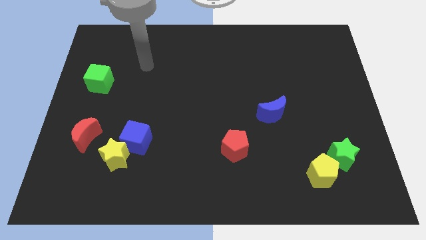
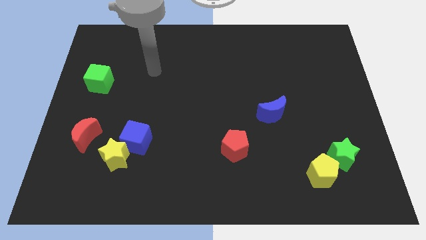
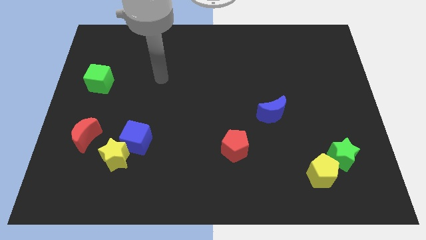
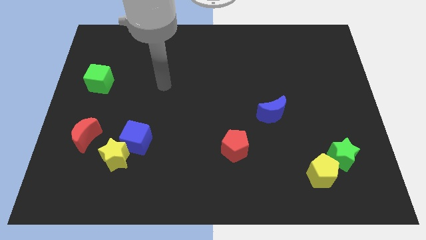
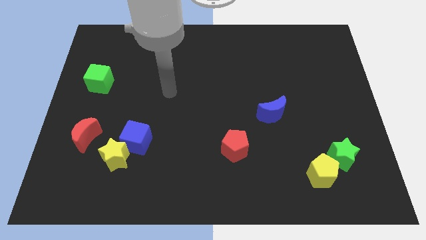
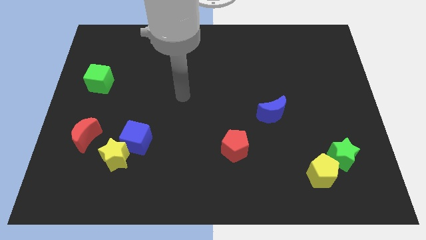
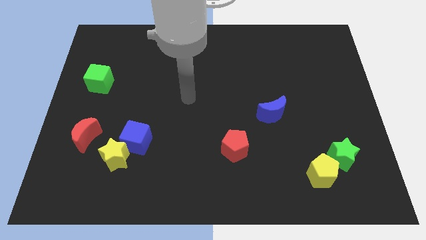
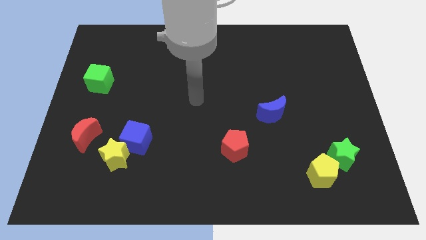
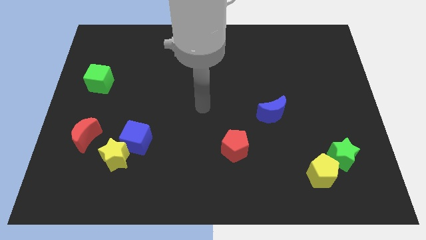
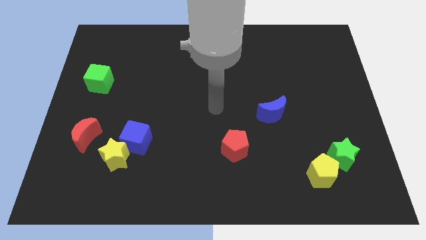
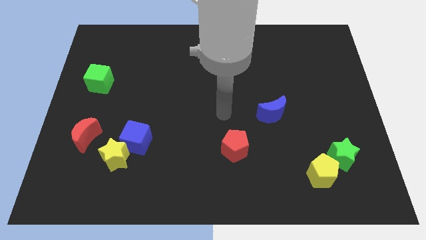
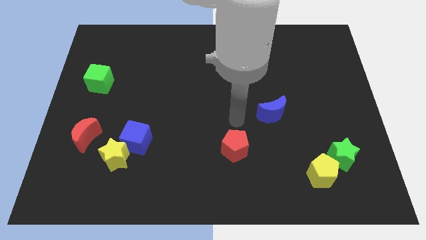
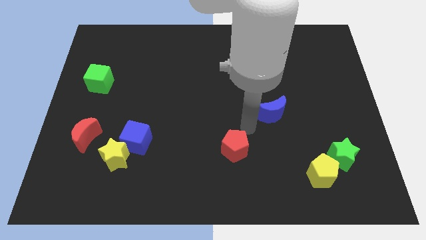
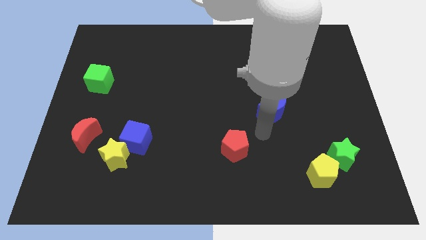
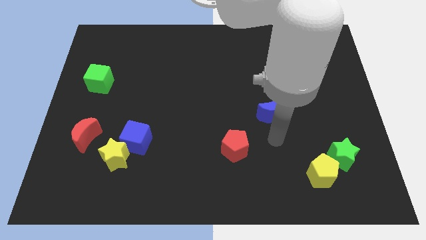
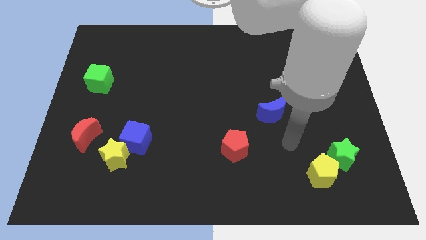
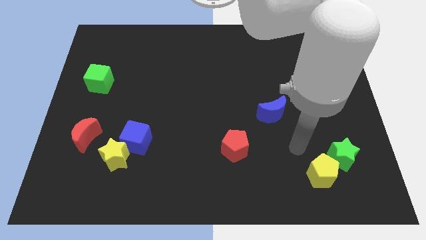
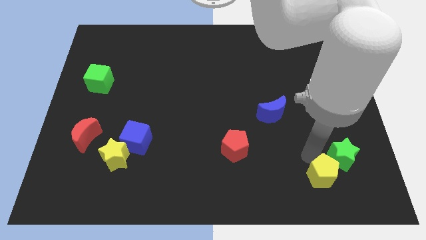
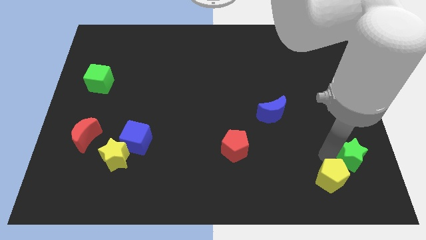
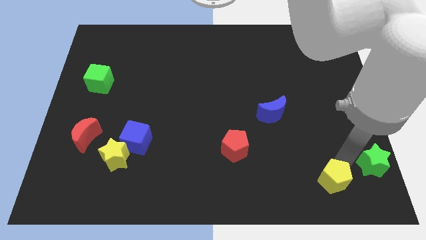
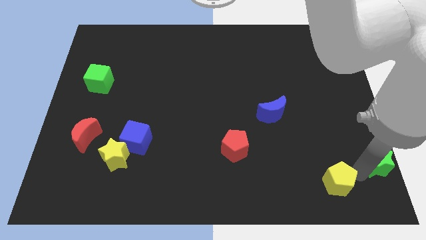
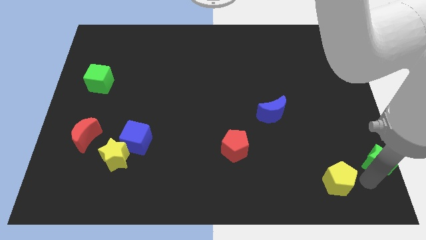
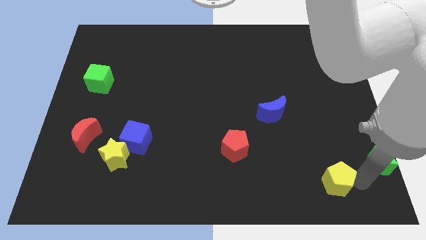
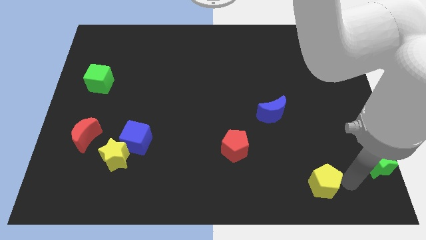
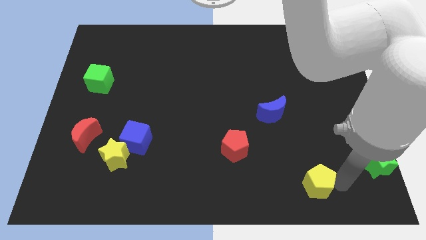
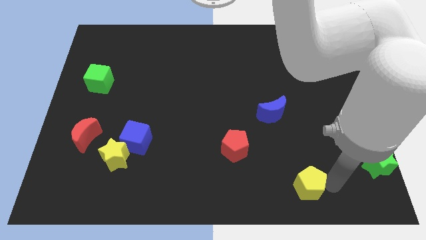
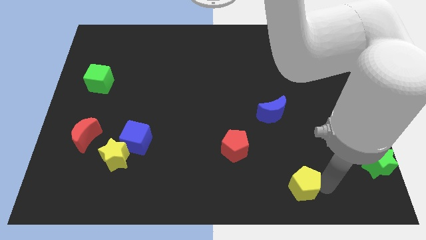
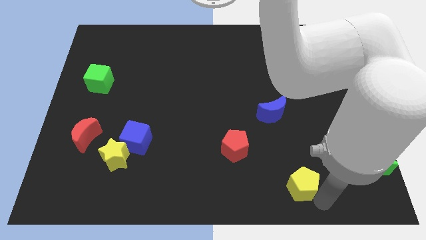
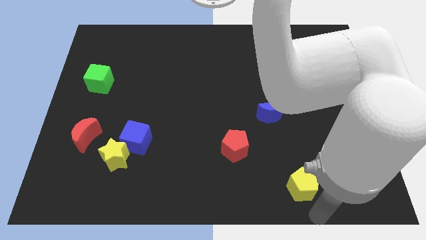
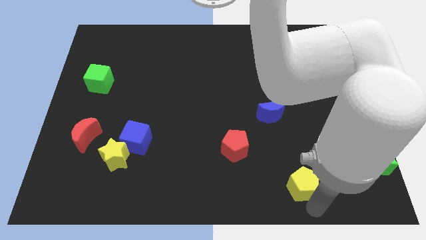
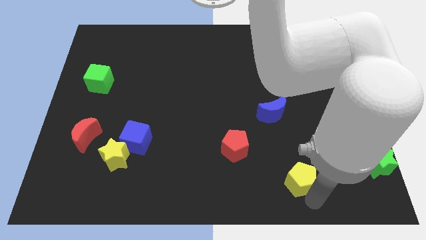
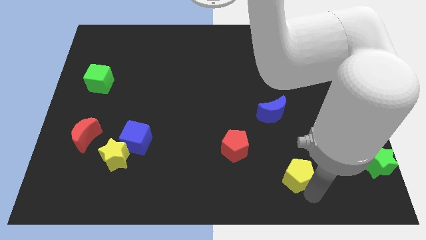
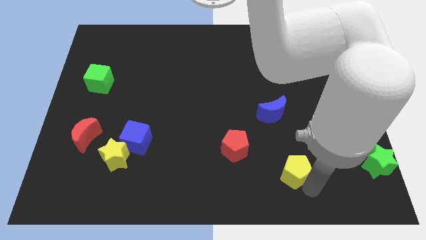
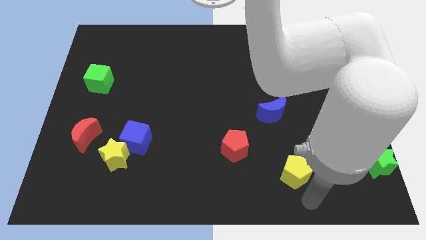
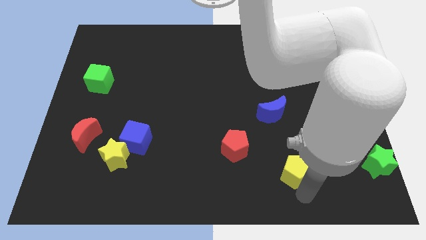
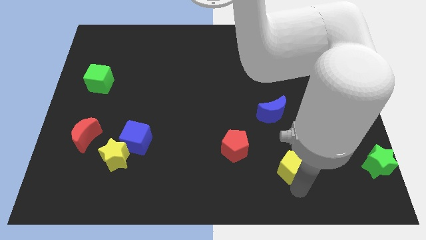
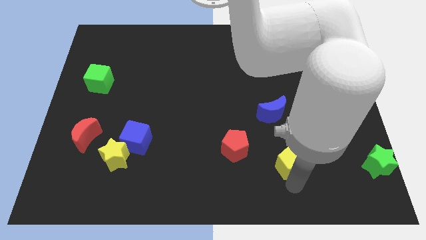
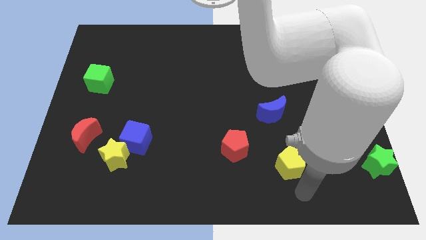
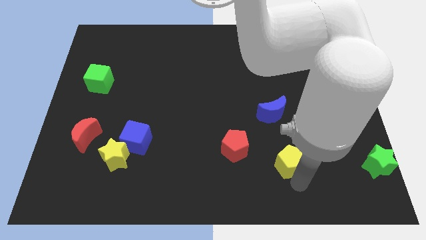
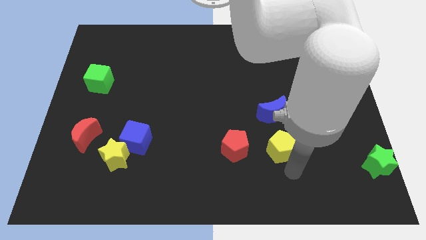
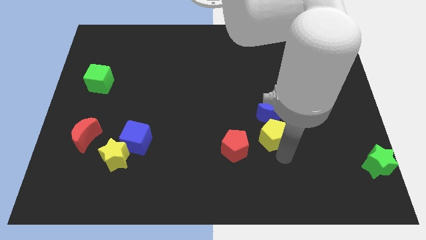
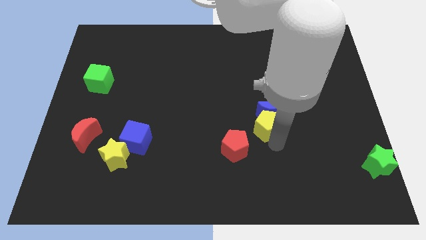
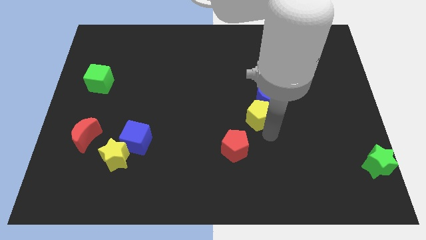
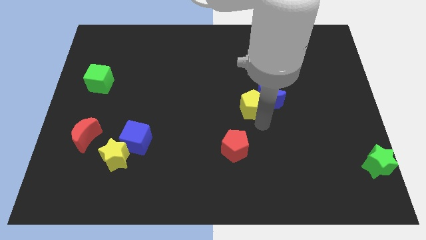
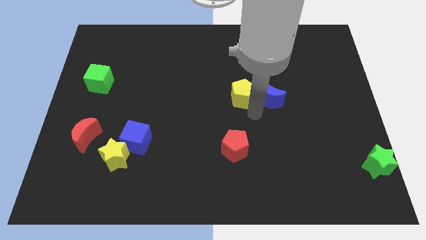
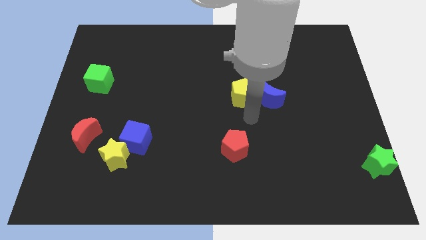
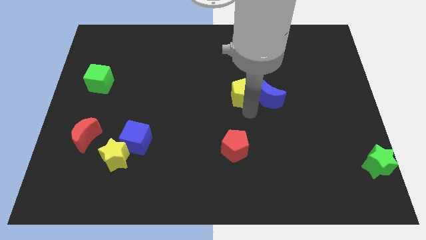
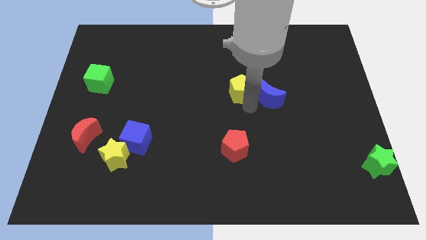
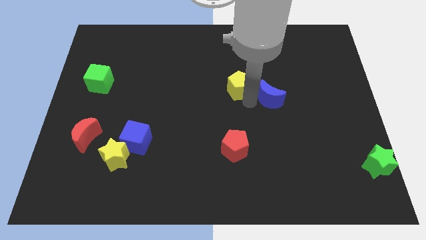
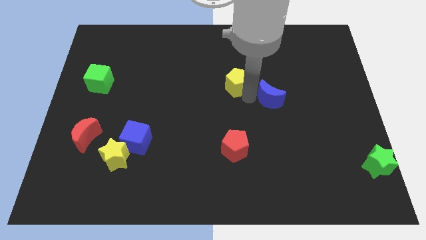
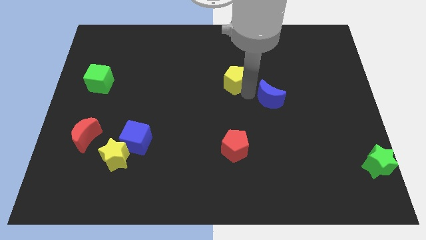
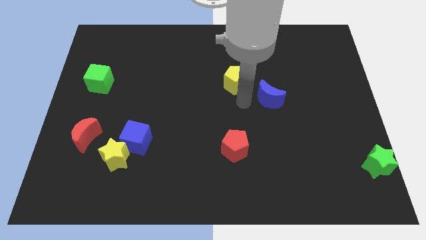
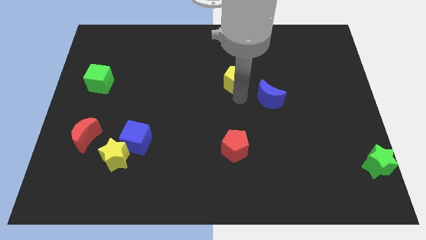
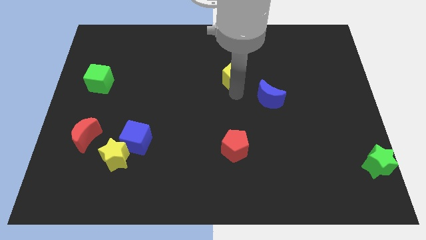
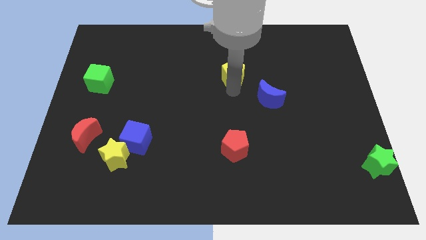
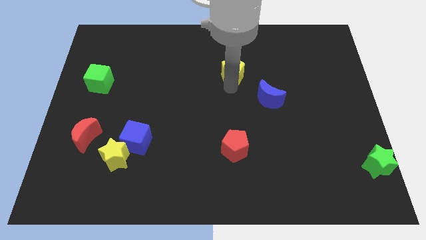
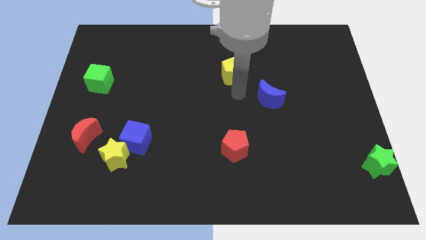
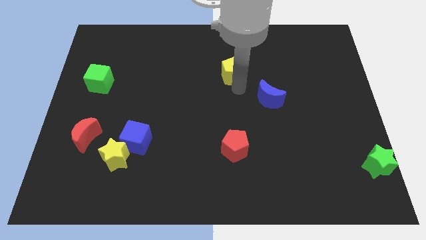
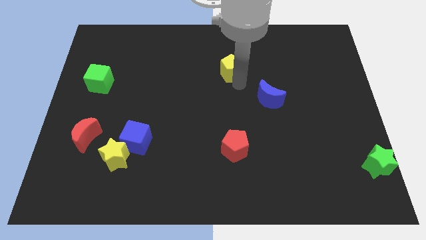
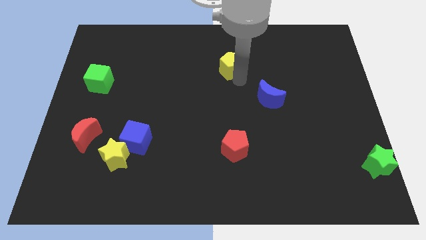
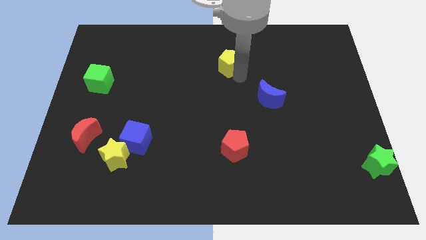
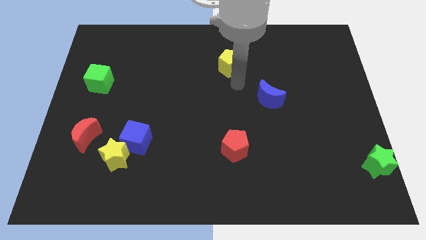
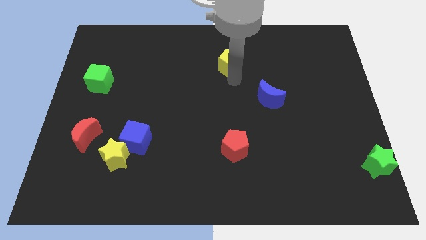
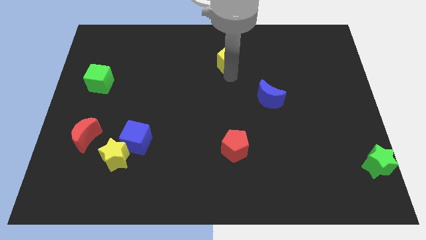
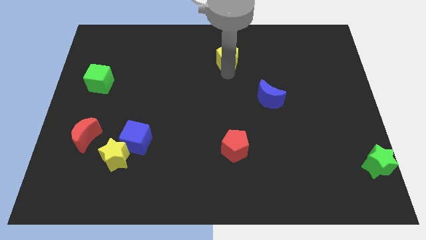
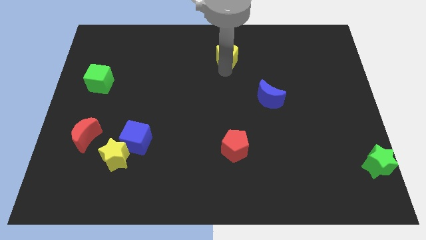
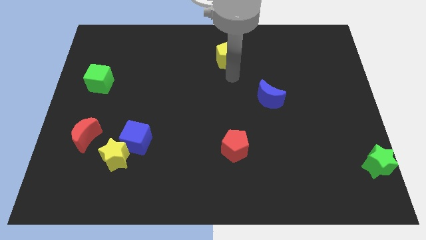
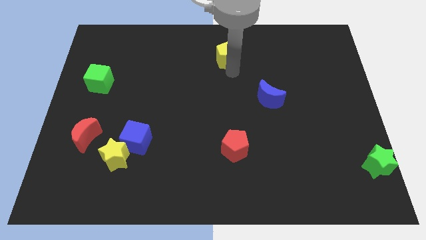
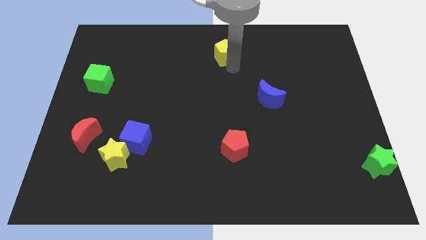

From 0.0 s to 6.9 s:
move the yellow pentagon to the top side

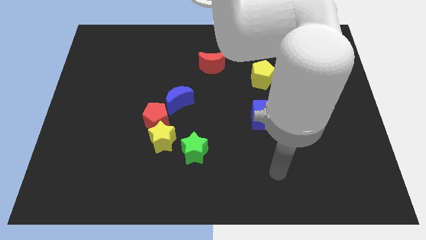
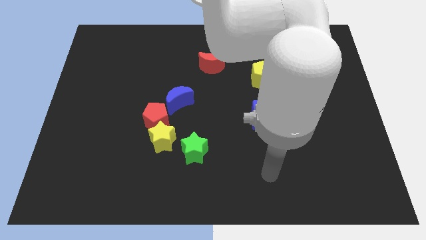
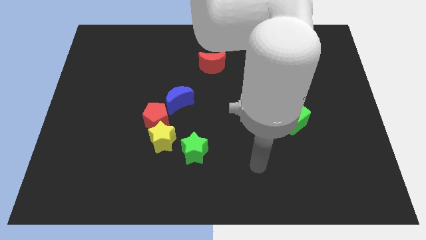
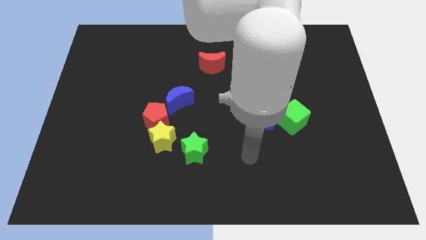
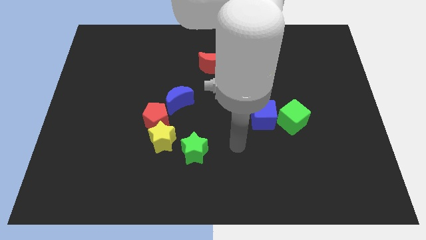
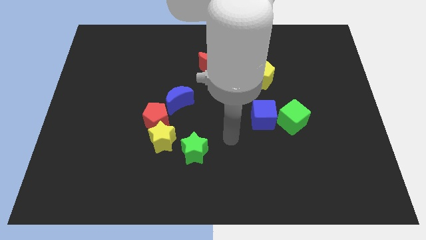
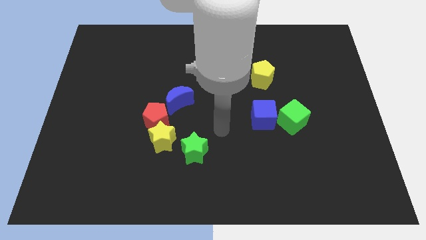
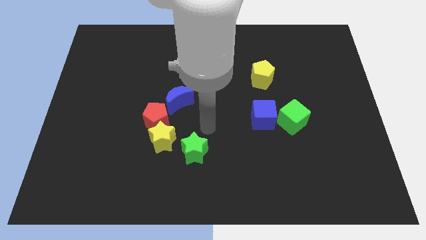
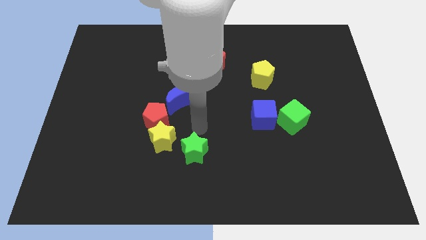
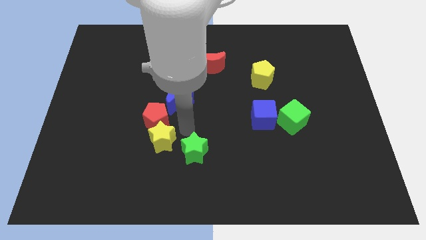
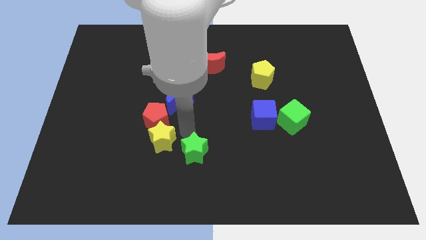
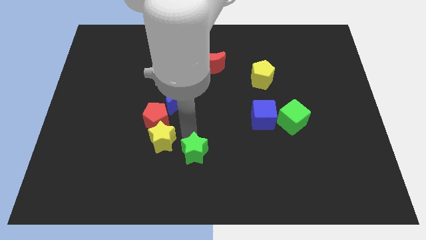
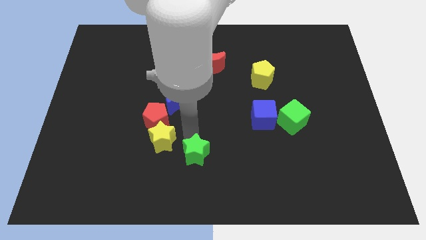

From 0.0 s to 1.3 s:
put the green star to the bottom side

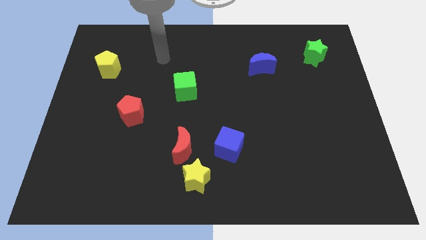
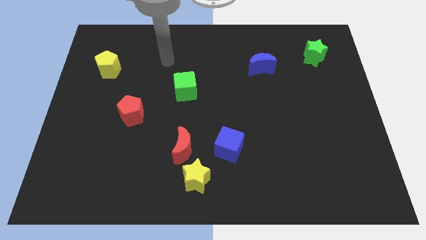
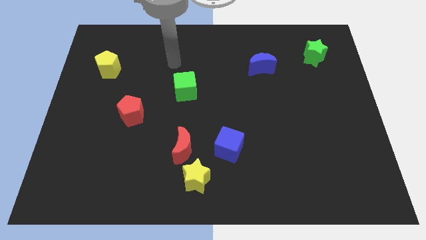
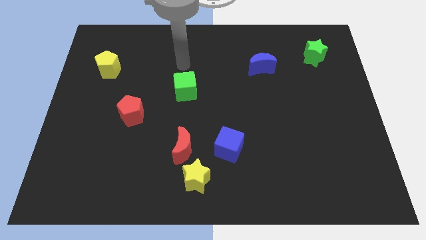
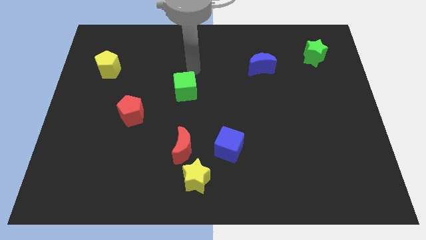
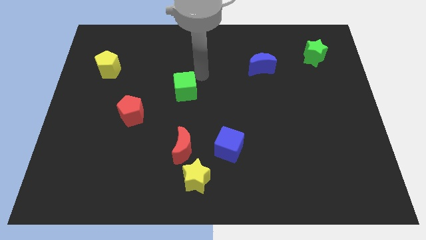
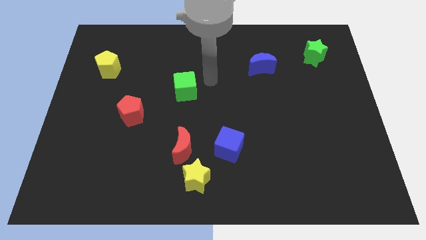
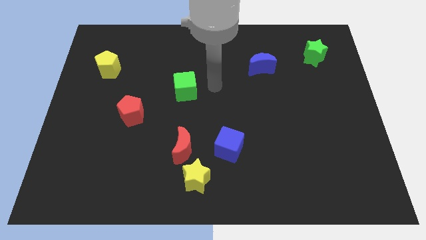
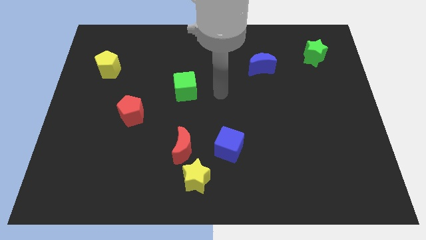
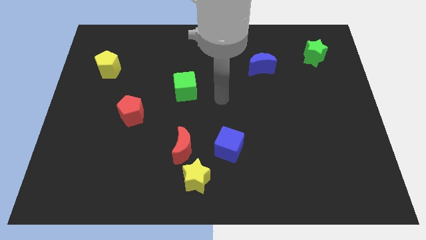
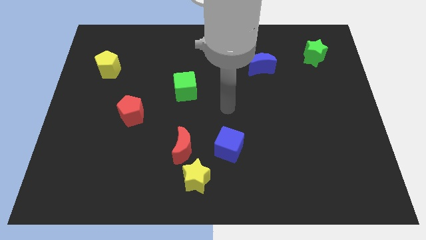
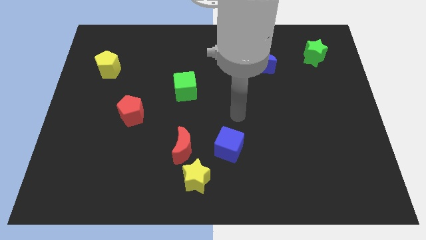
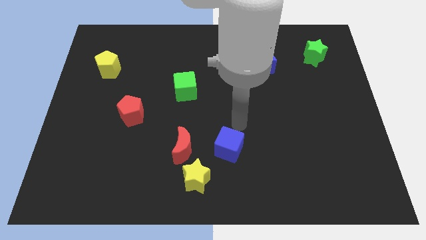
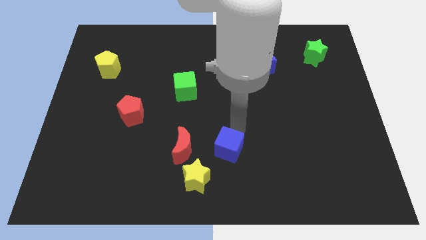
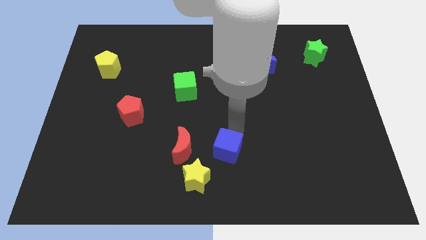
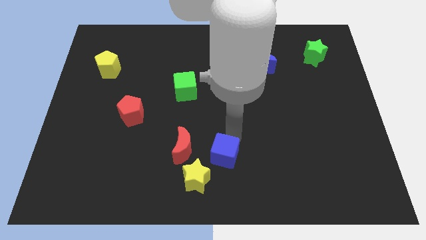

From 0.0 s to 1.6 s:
push the blue cube to the bottom side
